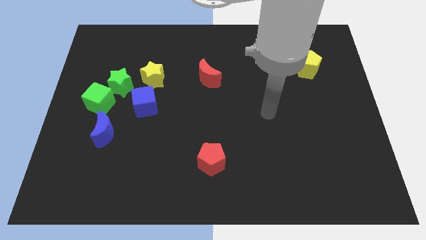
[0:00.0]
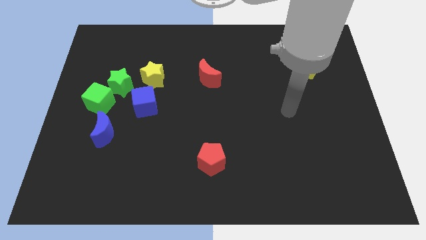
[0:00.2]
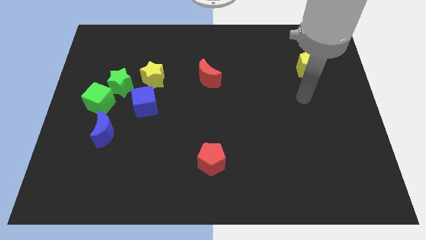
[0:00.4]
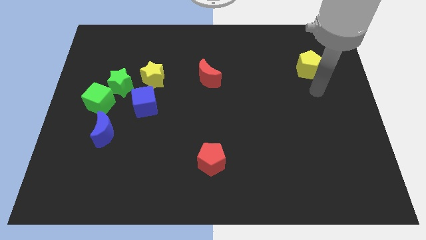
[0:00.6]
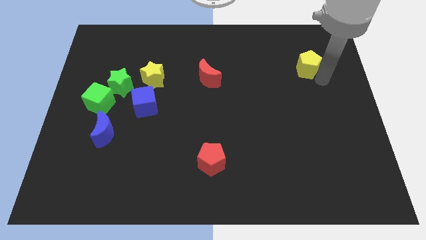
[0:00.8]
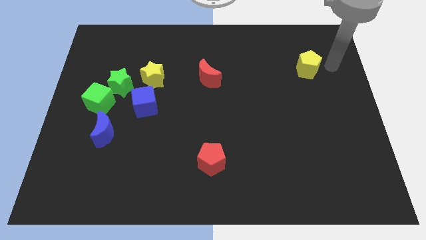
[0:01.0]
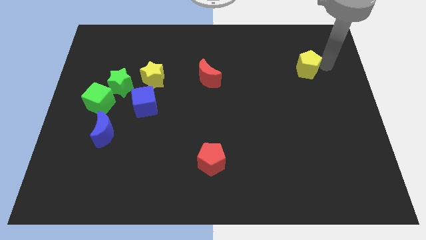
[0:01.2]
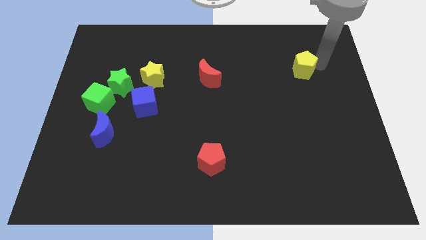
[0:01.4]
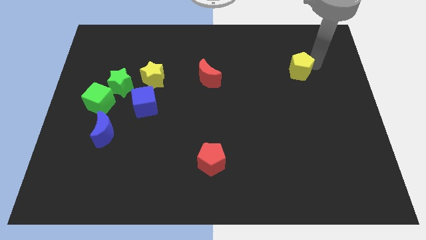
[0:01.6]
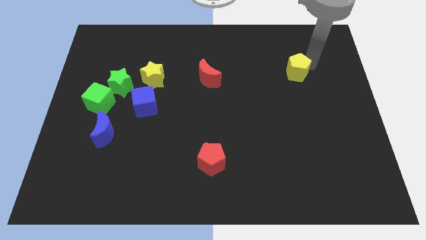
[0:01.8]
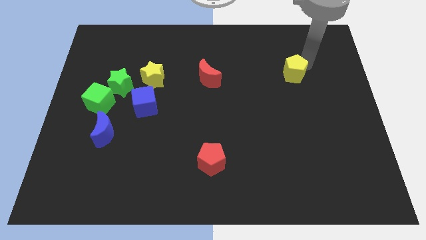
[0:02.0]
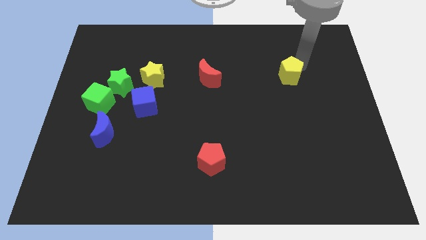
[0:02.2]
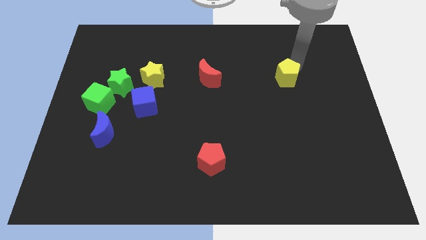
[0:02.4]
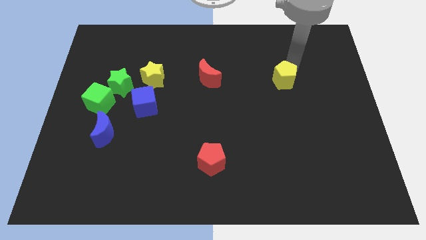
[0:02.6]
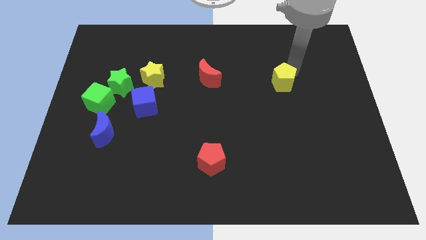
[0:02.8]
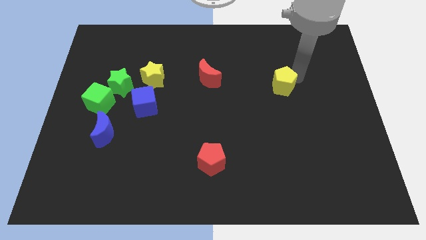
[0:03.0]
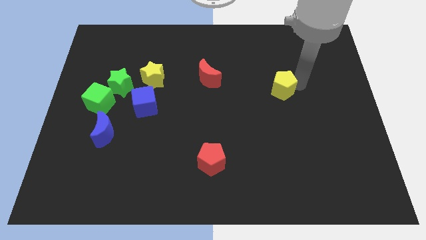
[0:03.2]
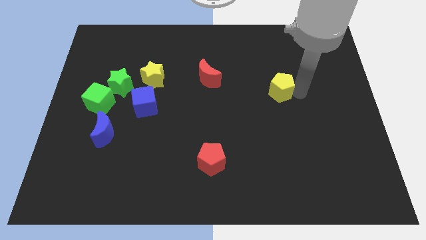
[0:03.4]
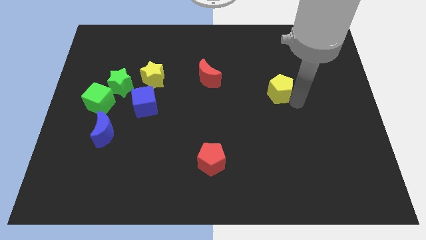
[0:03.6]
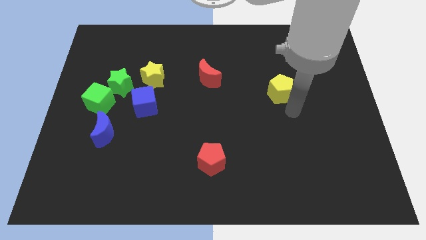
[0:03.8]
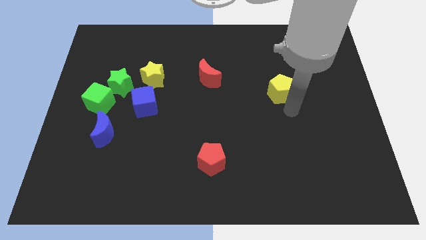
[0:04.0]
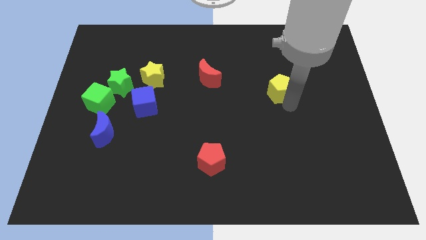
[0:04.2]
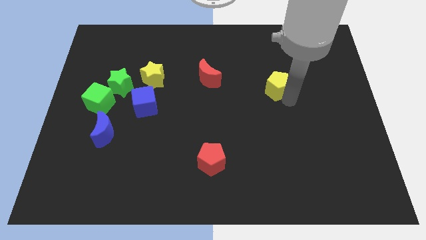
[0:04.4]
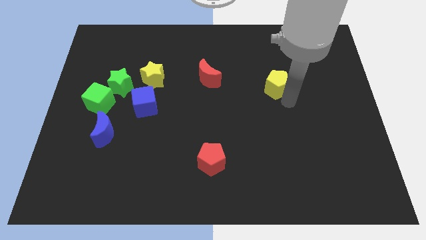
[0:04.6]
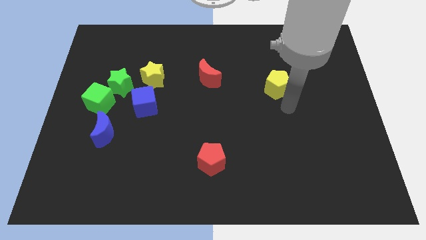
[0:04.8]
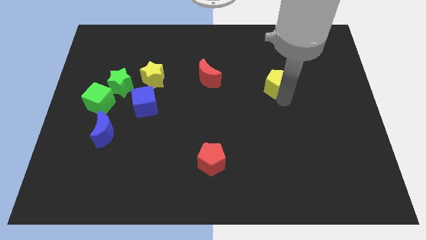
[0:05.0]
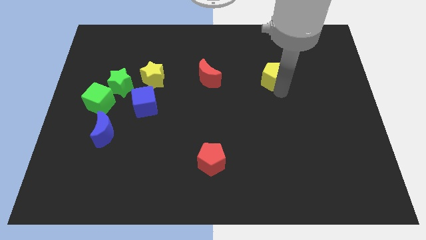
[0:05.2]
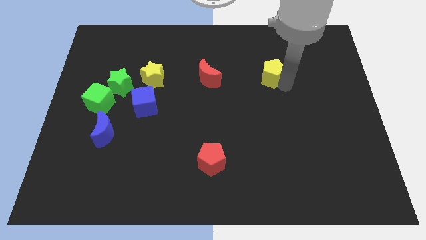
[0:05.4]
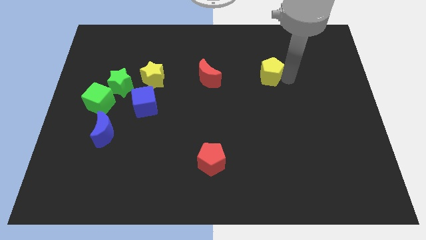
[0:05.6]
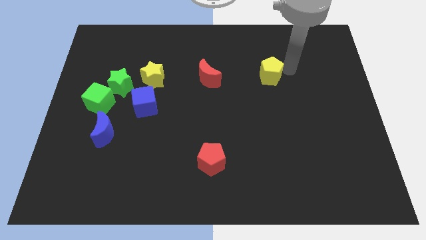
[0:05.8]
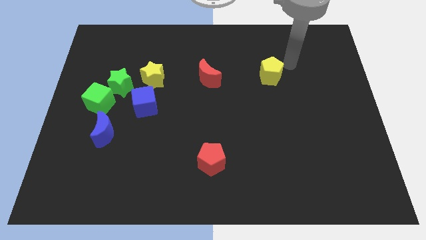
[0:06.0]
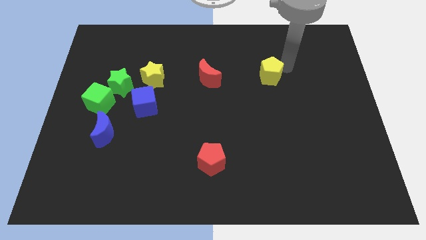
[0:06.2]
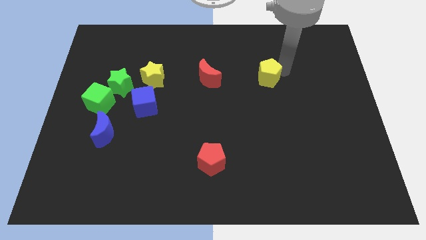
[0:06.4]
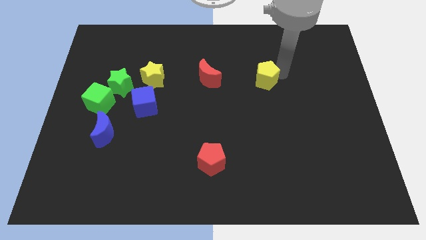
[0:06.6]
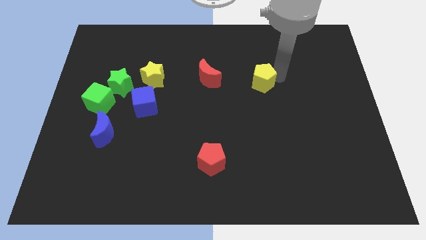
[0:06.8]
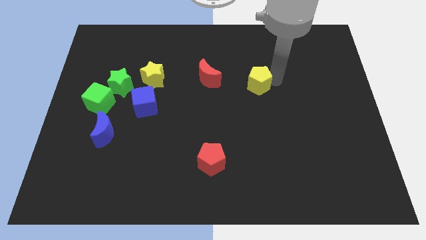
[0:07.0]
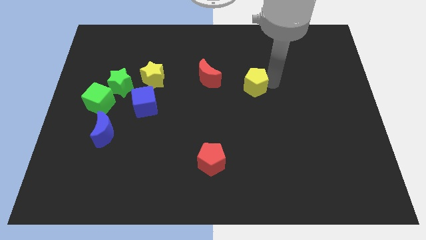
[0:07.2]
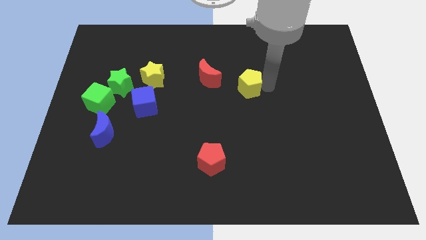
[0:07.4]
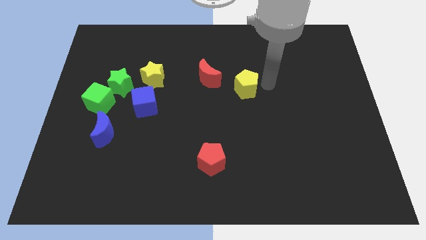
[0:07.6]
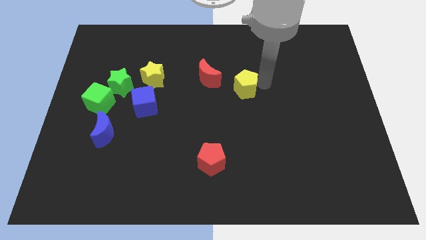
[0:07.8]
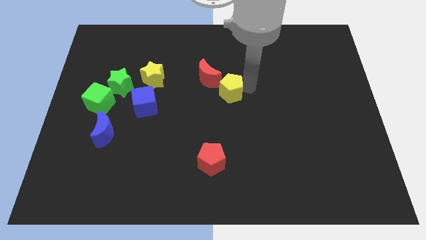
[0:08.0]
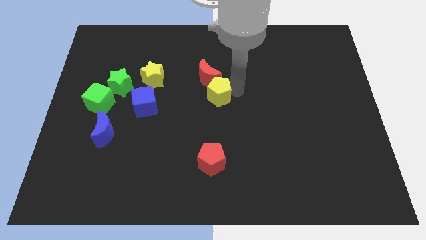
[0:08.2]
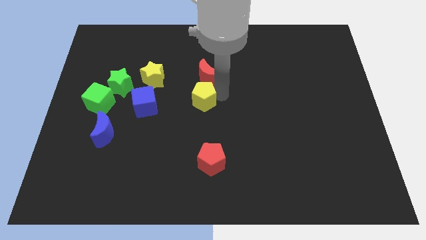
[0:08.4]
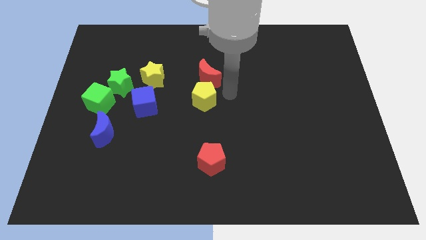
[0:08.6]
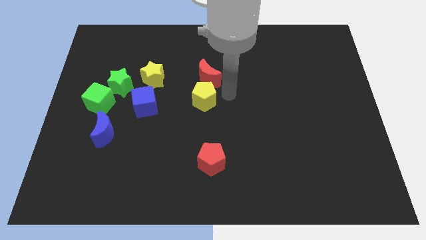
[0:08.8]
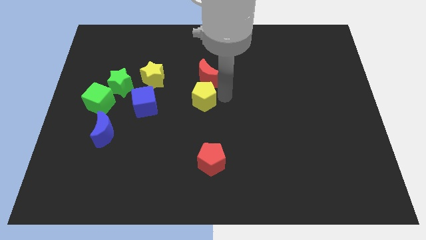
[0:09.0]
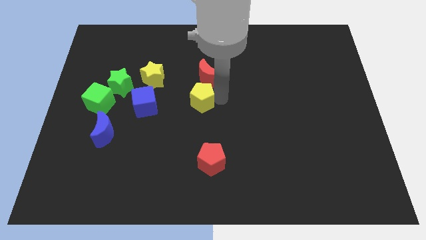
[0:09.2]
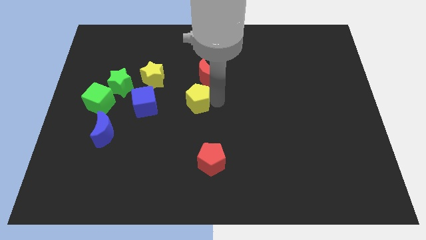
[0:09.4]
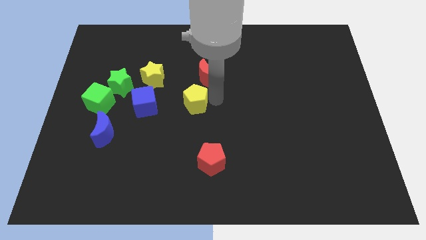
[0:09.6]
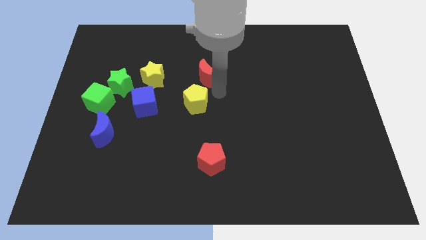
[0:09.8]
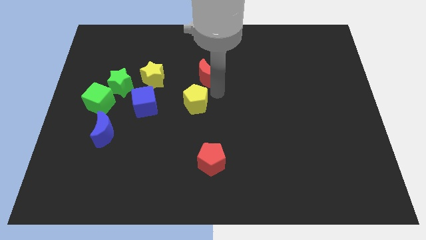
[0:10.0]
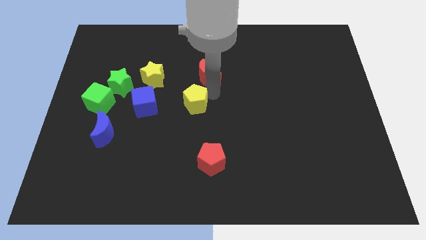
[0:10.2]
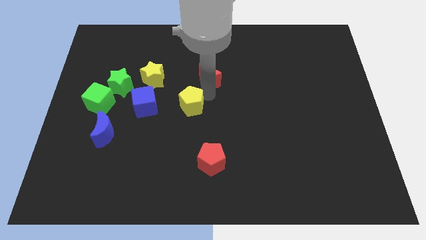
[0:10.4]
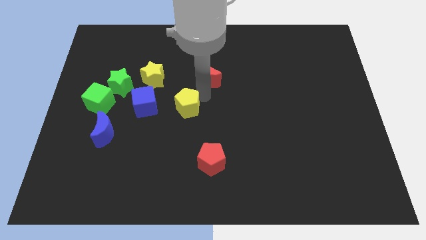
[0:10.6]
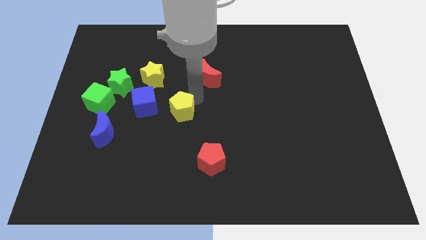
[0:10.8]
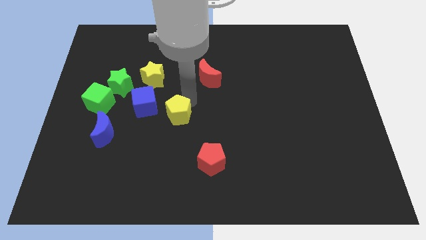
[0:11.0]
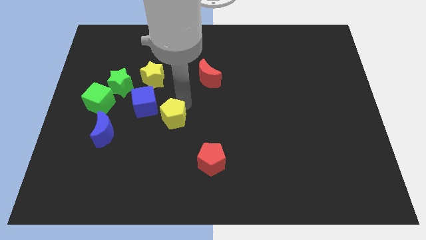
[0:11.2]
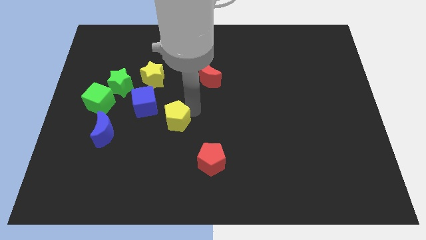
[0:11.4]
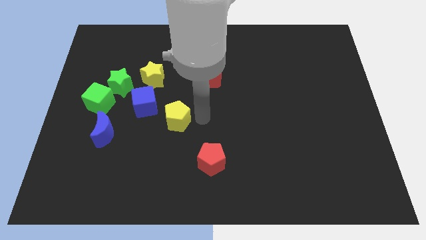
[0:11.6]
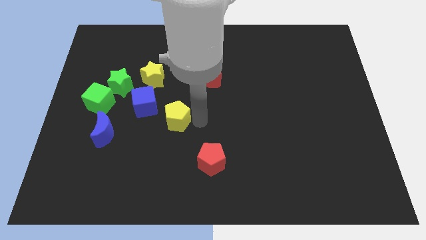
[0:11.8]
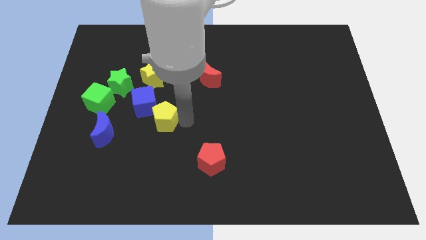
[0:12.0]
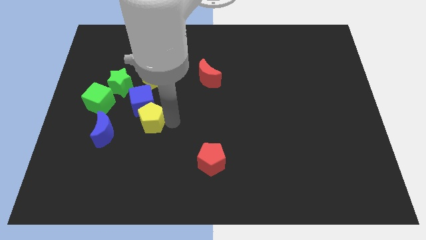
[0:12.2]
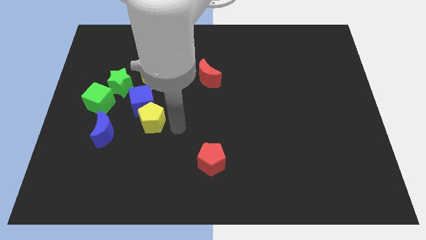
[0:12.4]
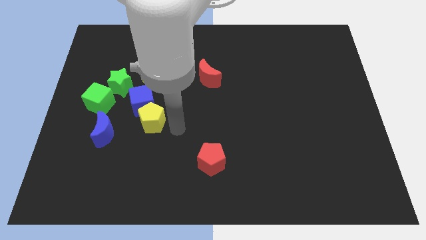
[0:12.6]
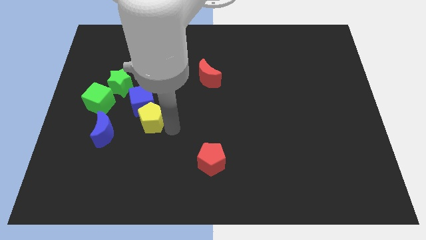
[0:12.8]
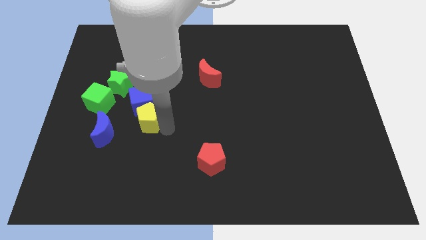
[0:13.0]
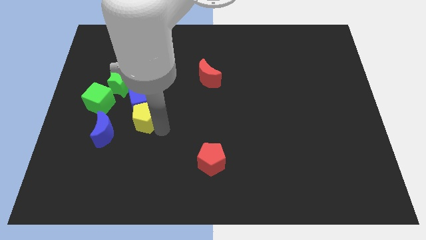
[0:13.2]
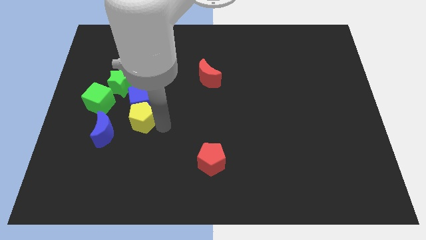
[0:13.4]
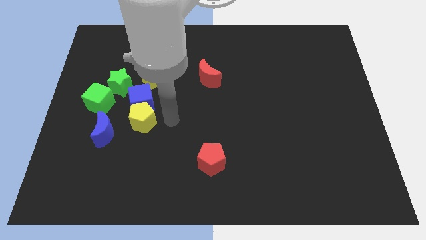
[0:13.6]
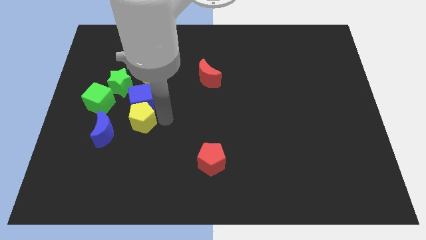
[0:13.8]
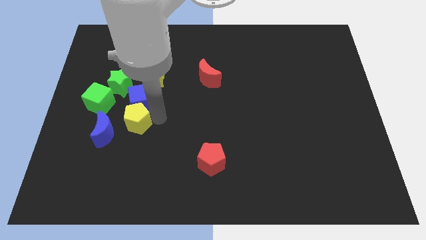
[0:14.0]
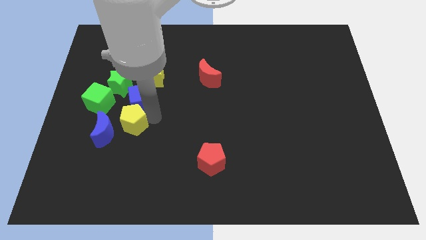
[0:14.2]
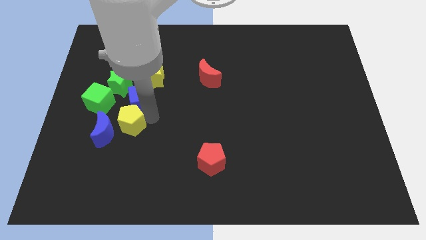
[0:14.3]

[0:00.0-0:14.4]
slide the yellow pentagon close to the blue moon
